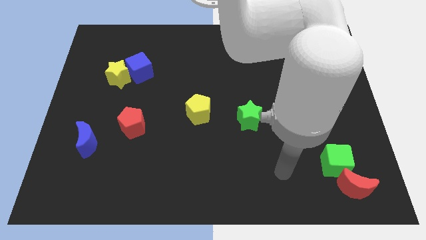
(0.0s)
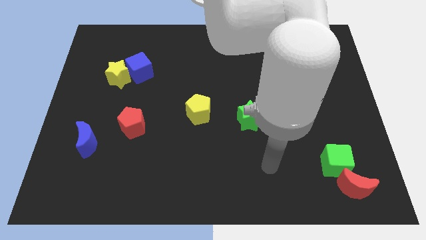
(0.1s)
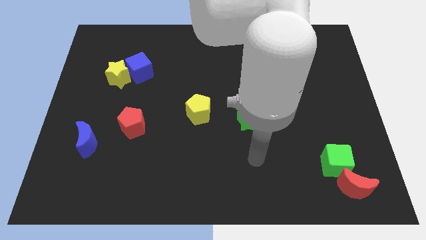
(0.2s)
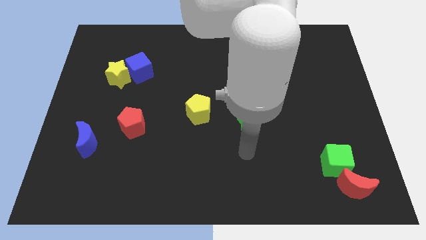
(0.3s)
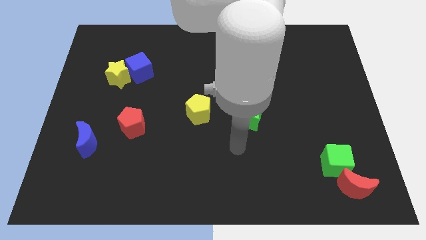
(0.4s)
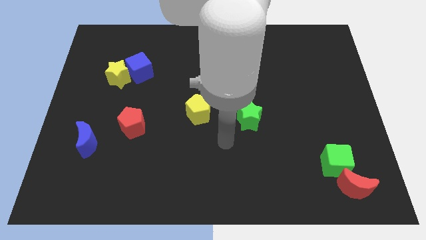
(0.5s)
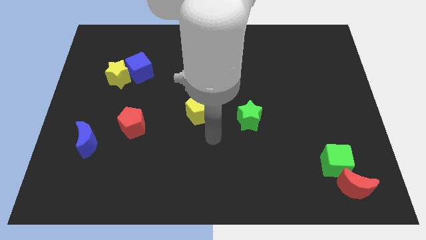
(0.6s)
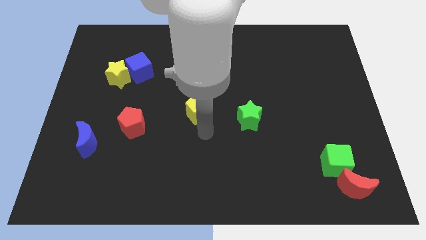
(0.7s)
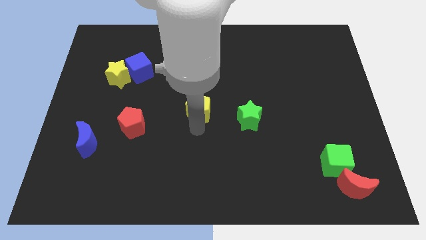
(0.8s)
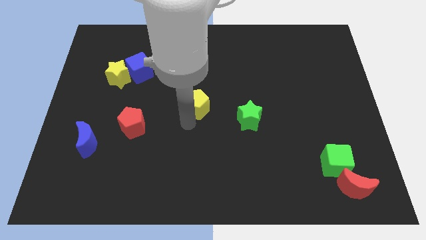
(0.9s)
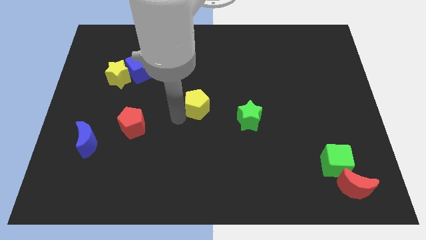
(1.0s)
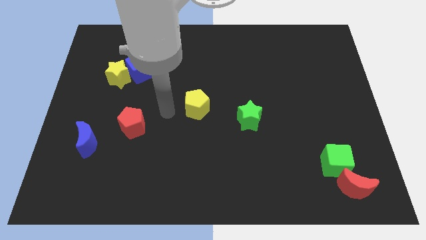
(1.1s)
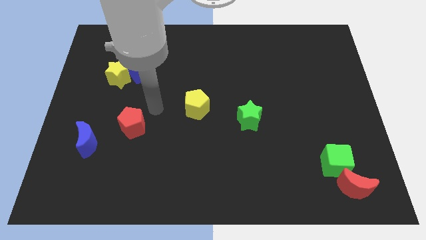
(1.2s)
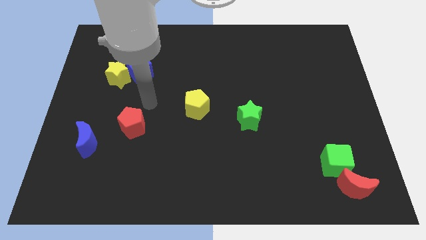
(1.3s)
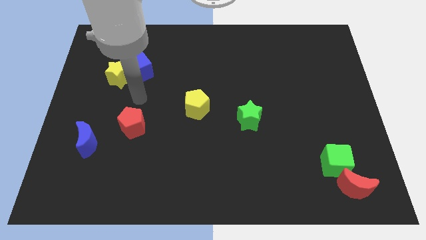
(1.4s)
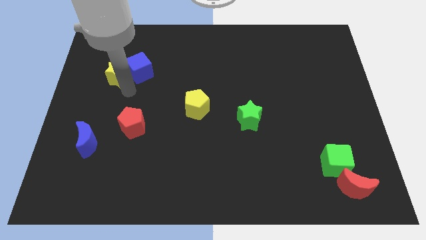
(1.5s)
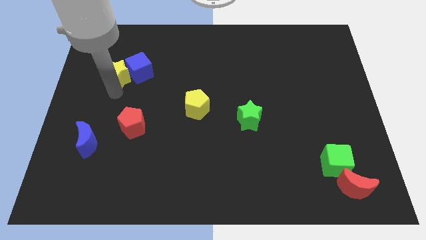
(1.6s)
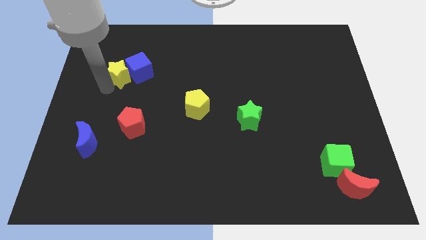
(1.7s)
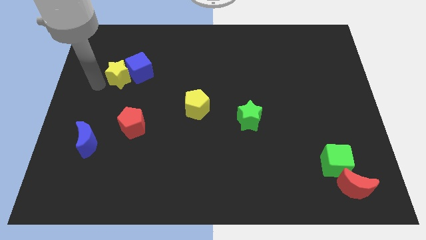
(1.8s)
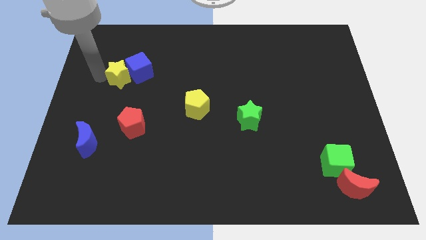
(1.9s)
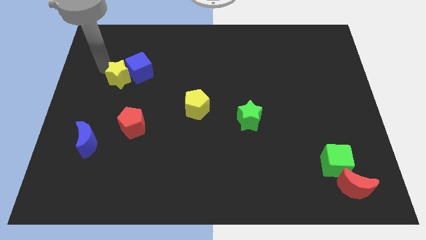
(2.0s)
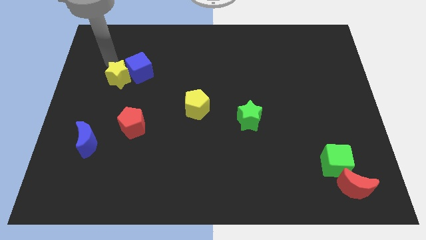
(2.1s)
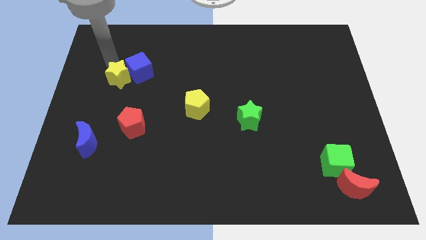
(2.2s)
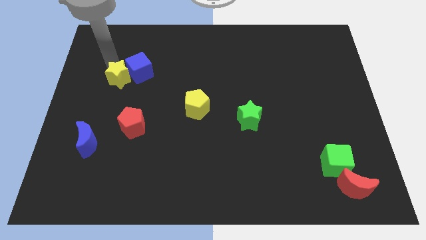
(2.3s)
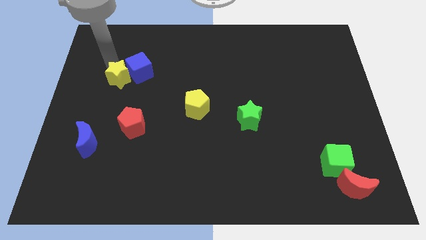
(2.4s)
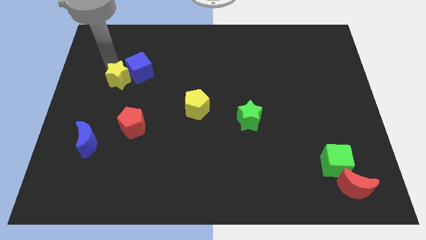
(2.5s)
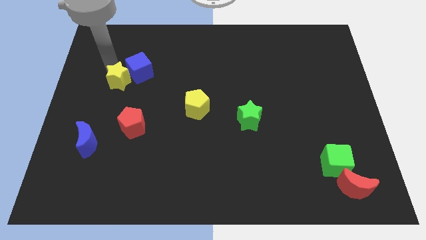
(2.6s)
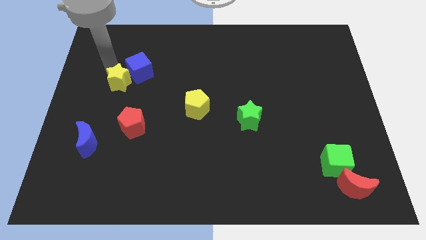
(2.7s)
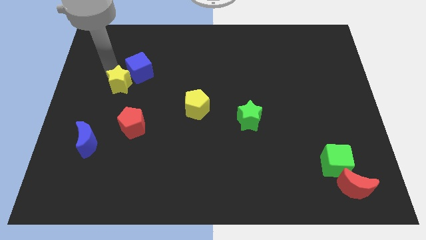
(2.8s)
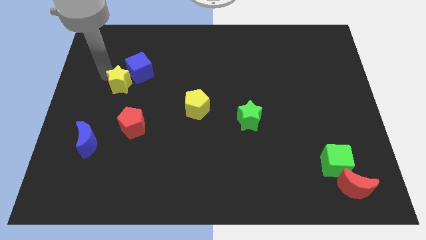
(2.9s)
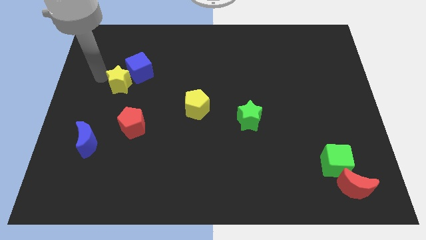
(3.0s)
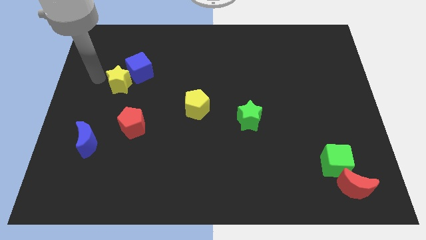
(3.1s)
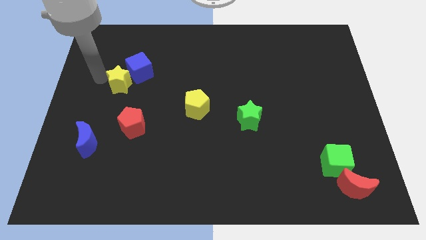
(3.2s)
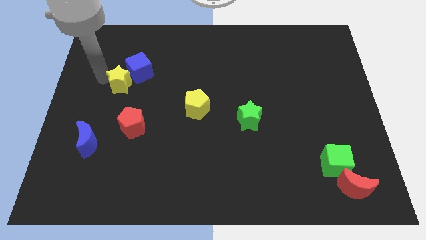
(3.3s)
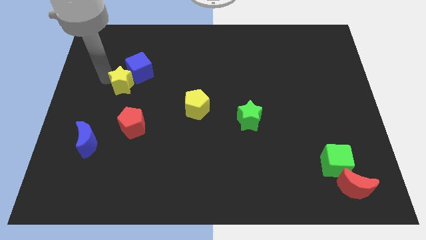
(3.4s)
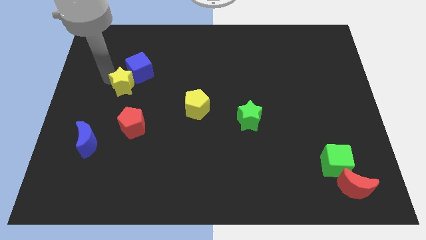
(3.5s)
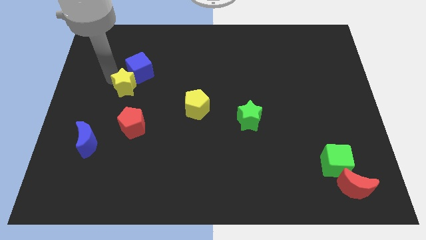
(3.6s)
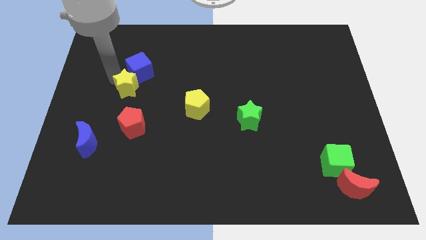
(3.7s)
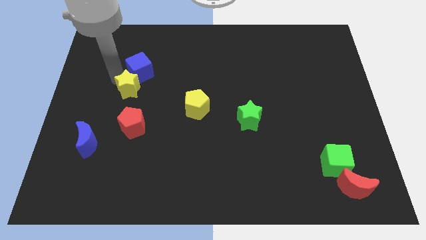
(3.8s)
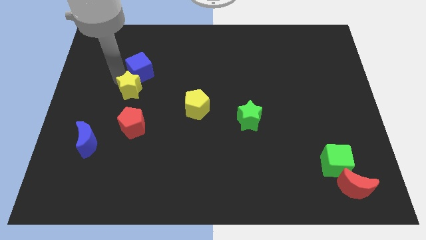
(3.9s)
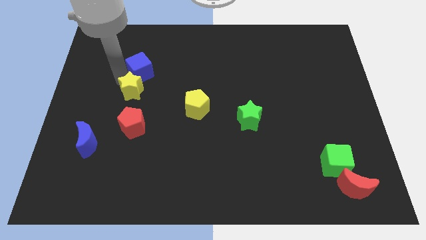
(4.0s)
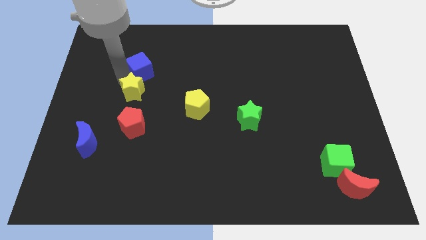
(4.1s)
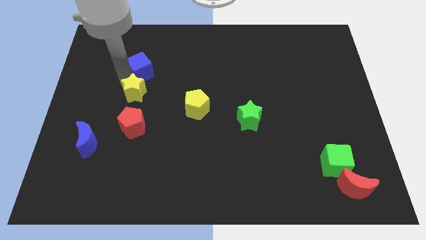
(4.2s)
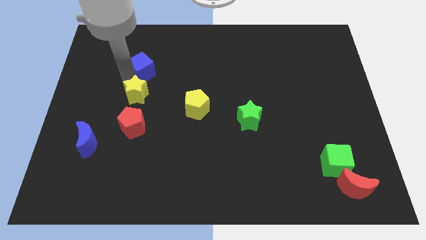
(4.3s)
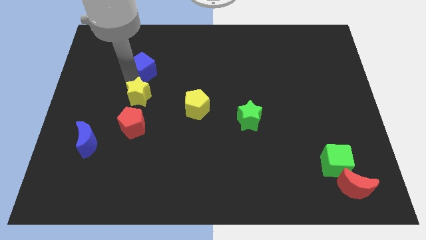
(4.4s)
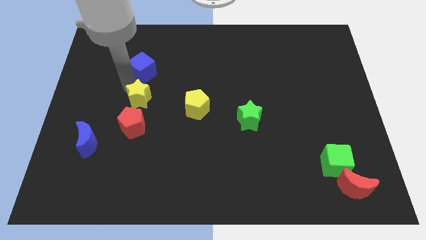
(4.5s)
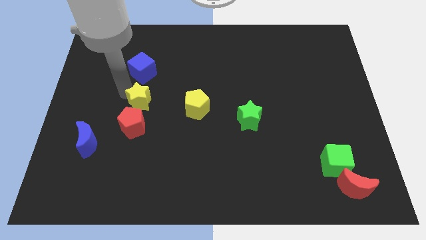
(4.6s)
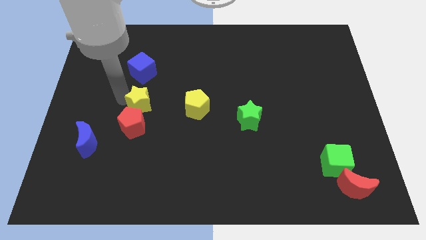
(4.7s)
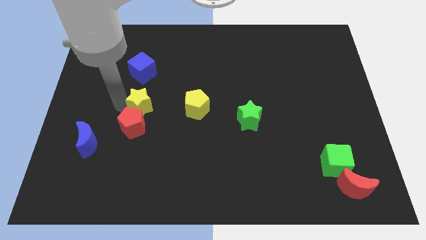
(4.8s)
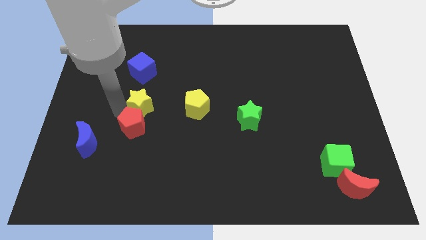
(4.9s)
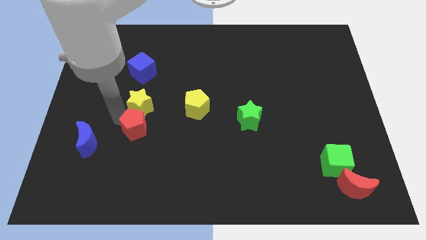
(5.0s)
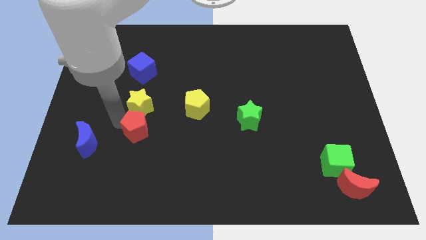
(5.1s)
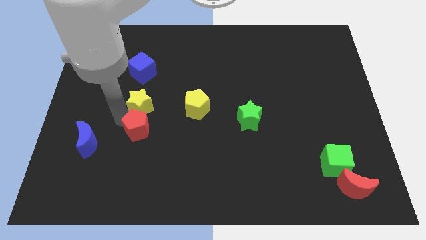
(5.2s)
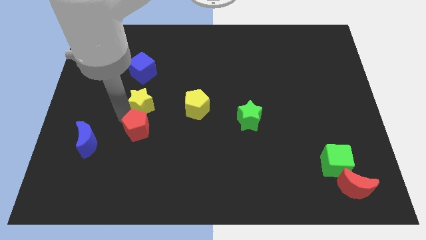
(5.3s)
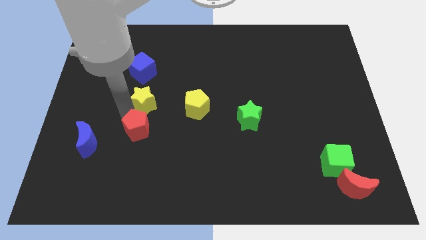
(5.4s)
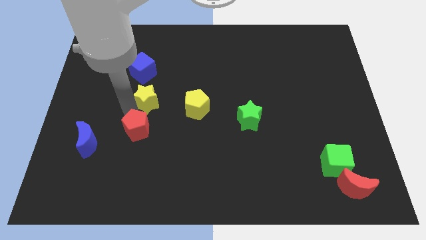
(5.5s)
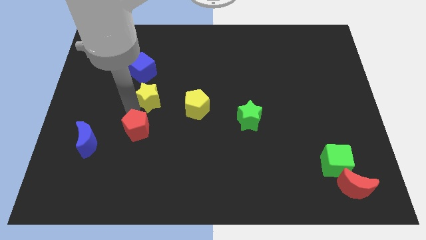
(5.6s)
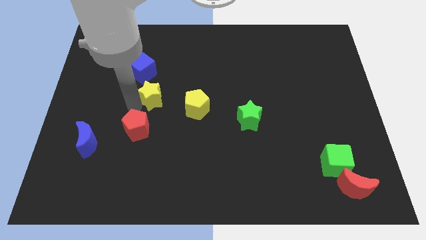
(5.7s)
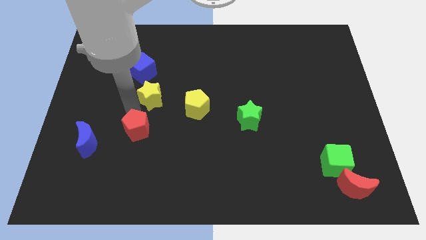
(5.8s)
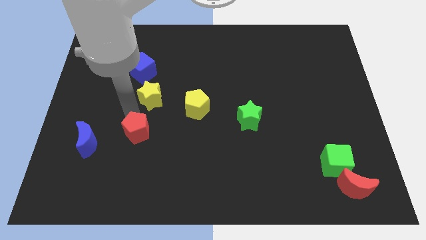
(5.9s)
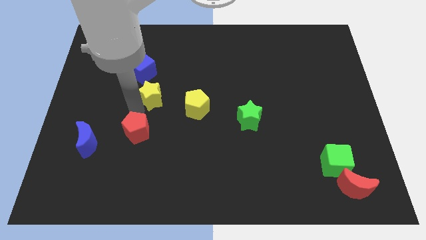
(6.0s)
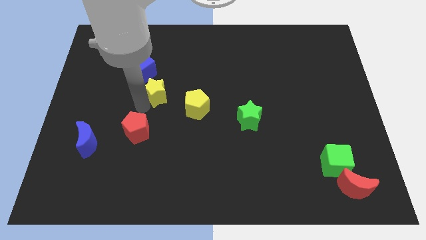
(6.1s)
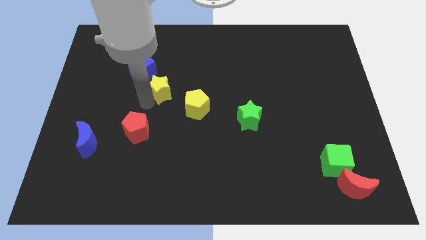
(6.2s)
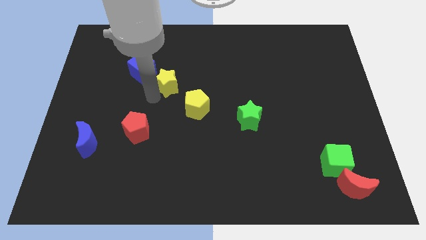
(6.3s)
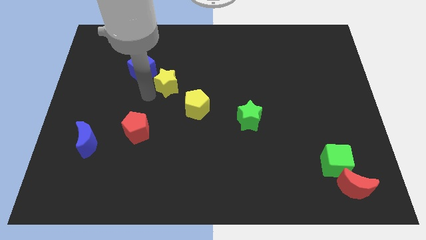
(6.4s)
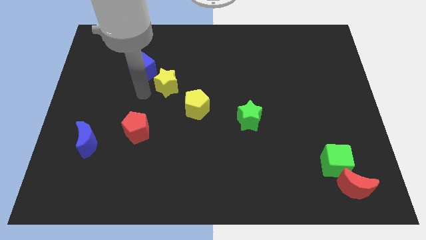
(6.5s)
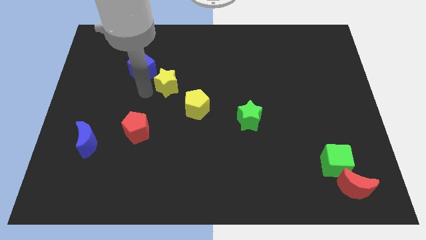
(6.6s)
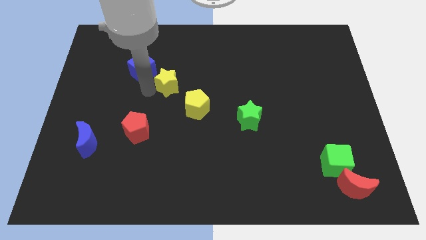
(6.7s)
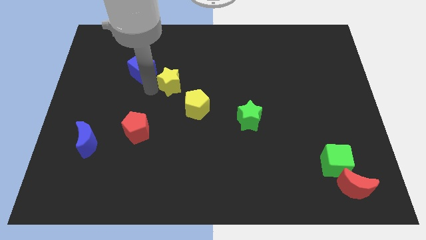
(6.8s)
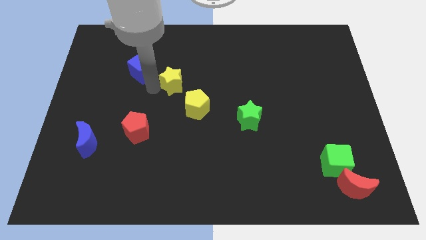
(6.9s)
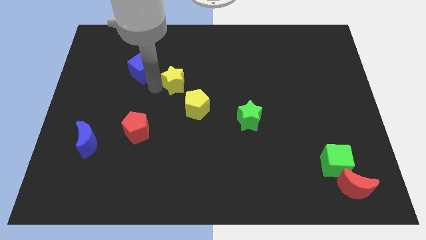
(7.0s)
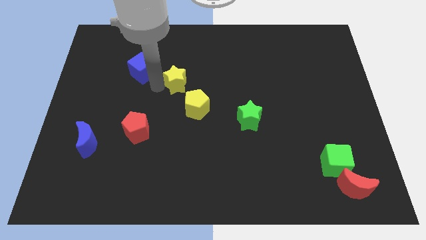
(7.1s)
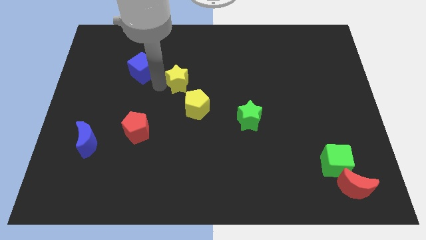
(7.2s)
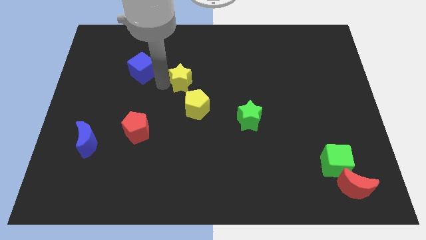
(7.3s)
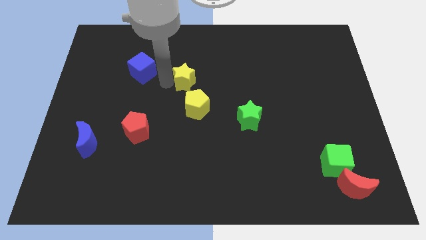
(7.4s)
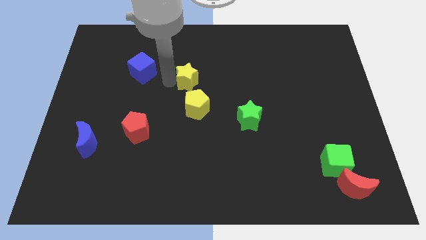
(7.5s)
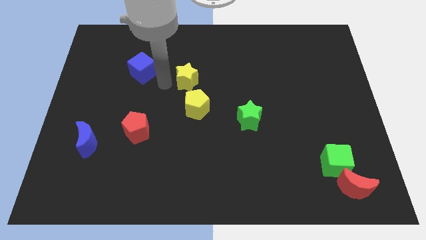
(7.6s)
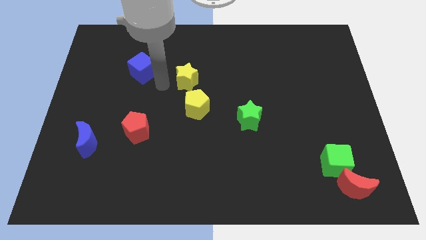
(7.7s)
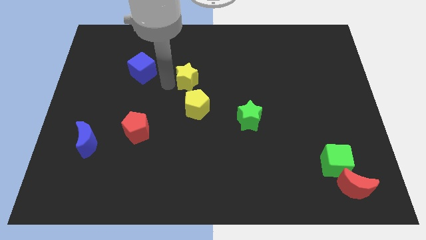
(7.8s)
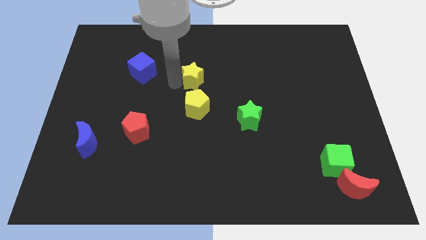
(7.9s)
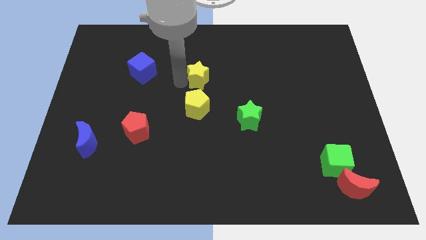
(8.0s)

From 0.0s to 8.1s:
push the yellow star right
